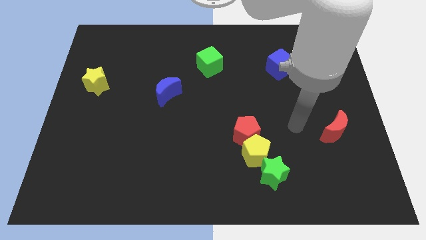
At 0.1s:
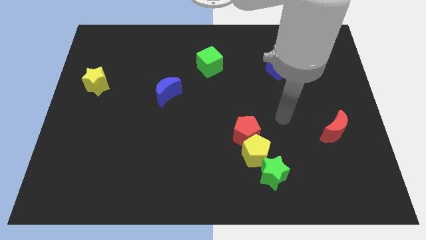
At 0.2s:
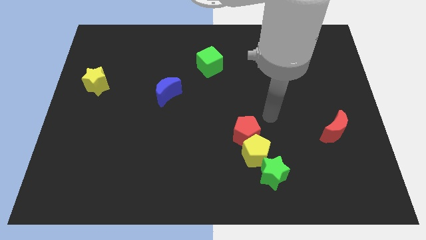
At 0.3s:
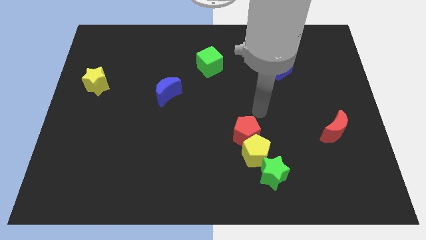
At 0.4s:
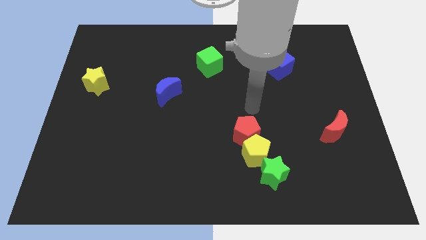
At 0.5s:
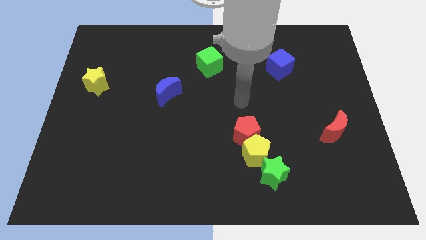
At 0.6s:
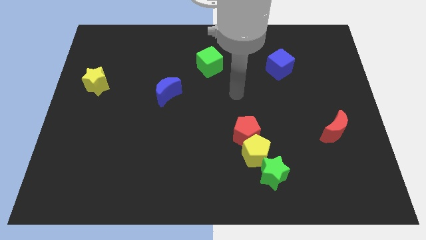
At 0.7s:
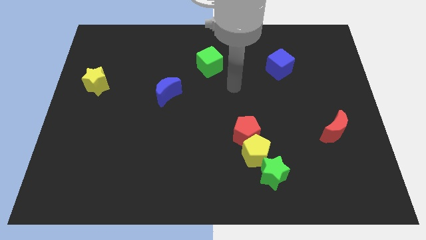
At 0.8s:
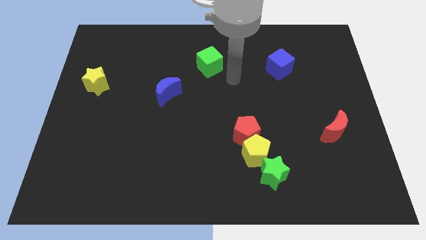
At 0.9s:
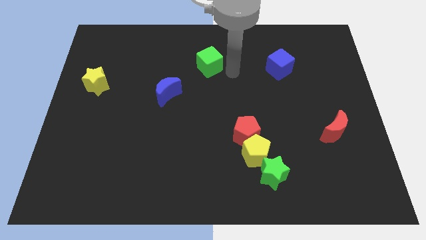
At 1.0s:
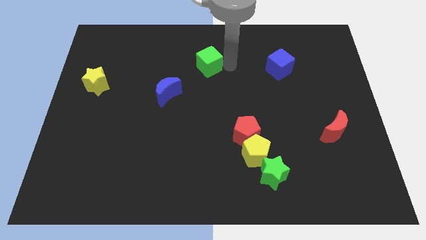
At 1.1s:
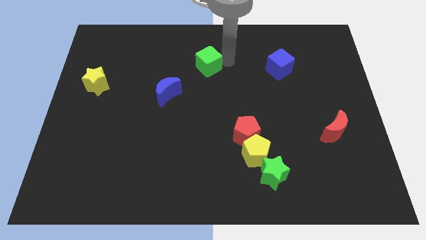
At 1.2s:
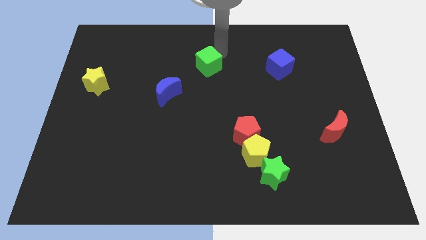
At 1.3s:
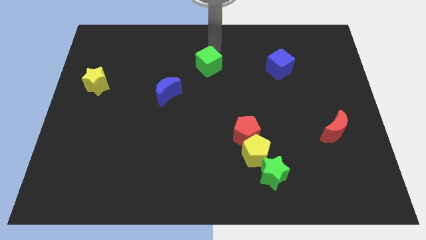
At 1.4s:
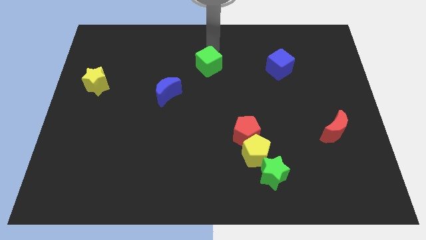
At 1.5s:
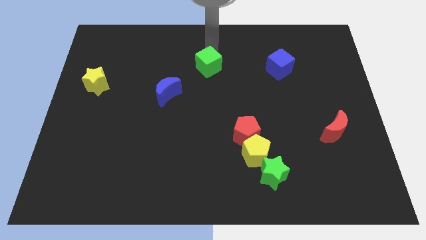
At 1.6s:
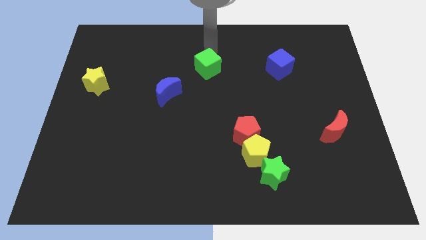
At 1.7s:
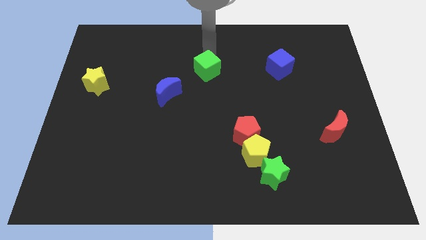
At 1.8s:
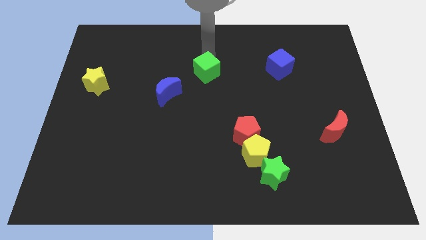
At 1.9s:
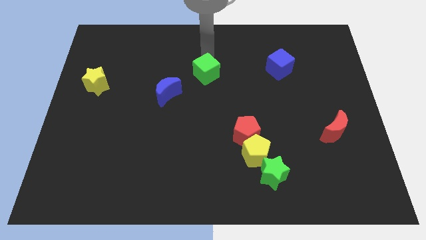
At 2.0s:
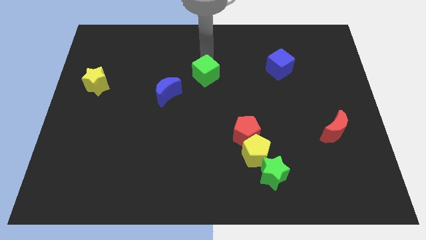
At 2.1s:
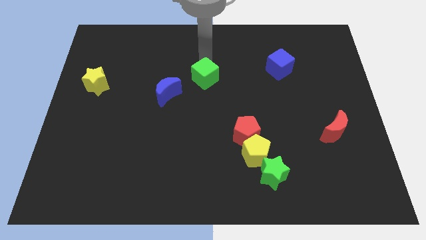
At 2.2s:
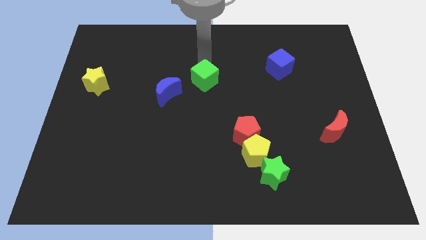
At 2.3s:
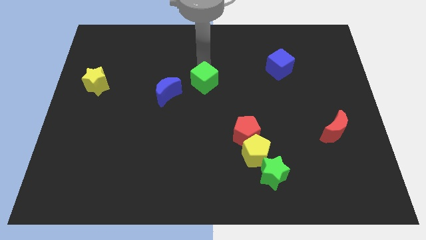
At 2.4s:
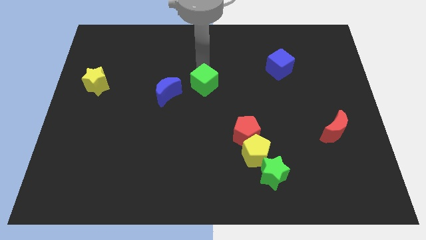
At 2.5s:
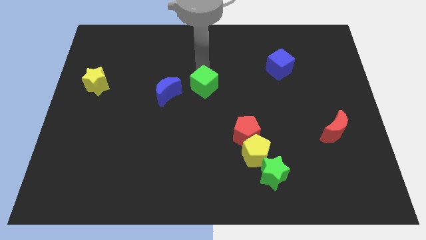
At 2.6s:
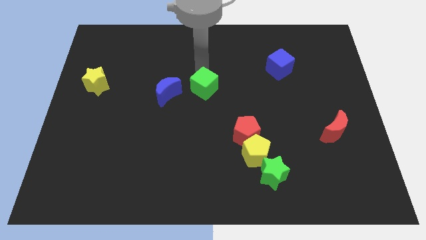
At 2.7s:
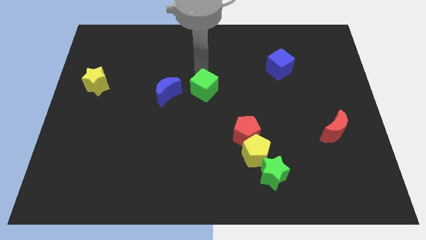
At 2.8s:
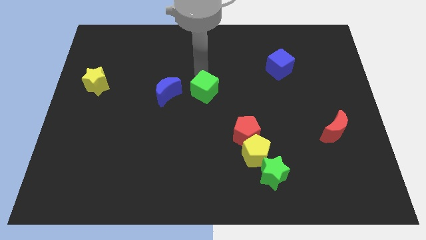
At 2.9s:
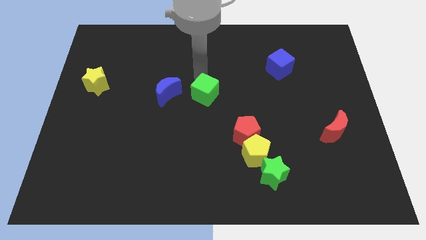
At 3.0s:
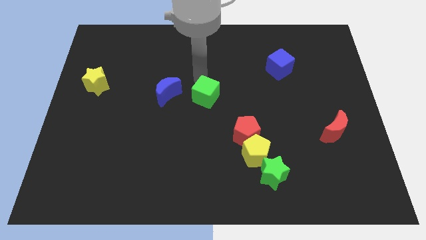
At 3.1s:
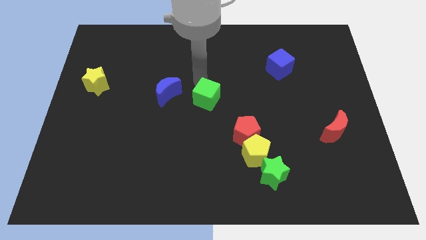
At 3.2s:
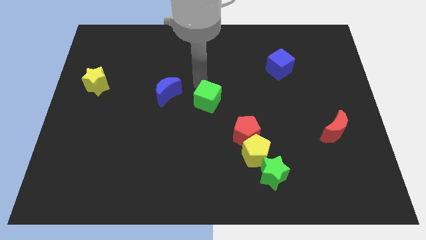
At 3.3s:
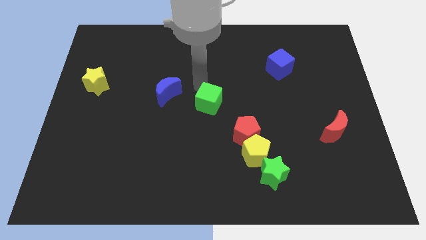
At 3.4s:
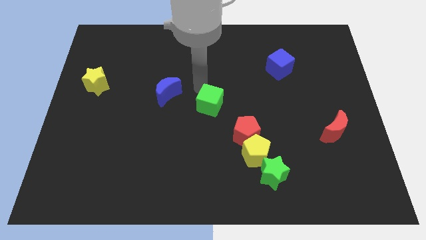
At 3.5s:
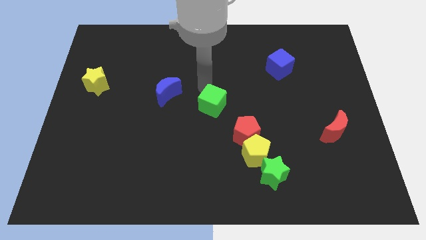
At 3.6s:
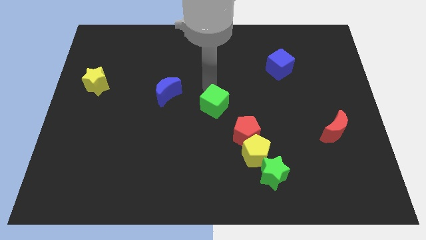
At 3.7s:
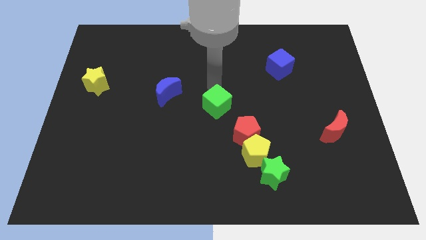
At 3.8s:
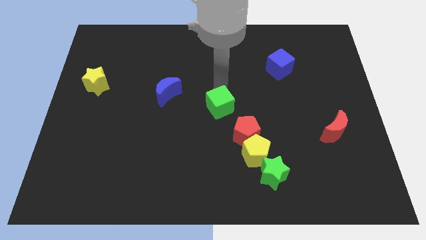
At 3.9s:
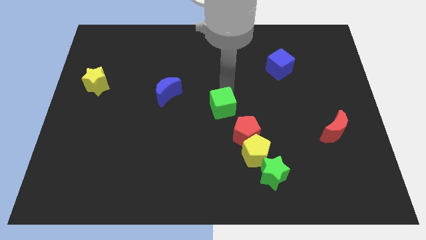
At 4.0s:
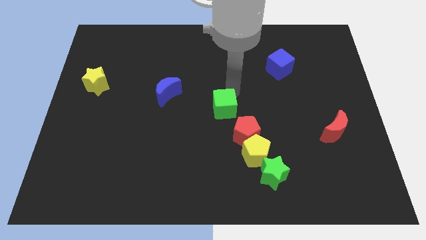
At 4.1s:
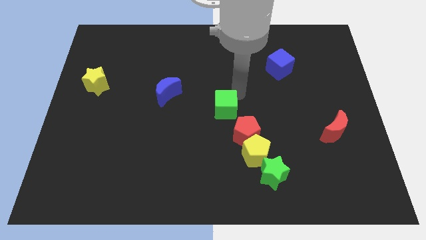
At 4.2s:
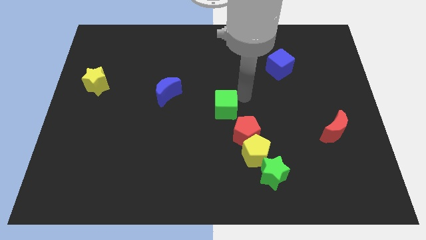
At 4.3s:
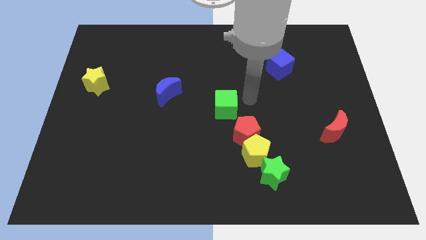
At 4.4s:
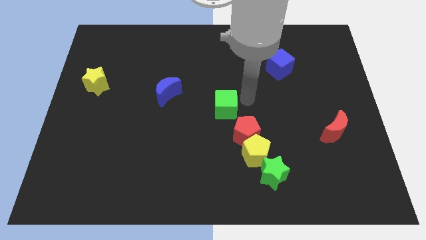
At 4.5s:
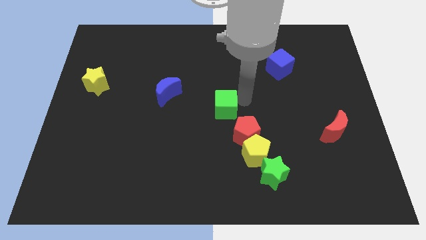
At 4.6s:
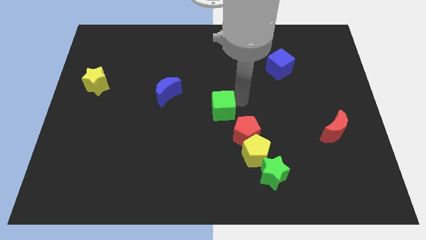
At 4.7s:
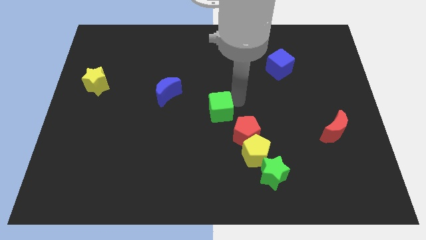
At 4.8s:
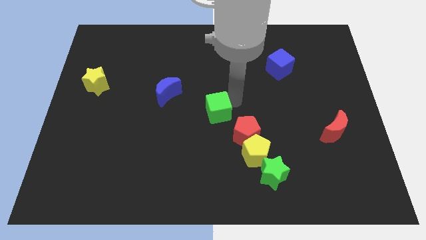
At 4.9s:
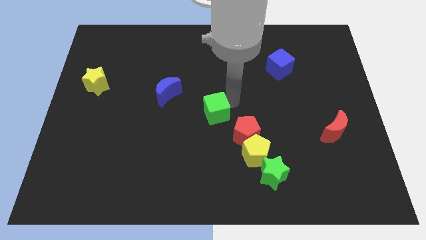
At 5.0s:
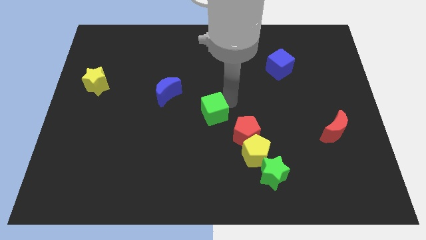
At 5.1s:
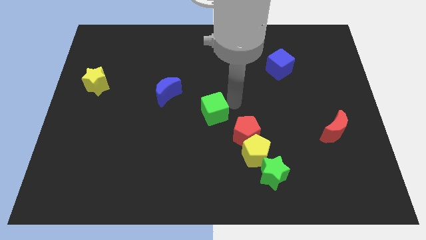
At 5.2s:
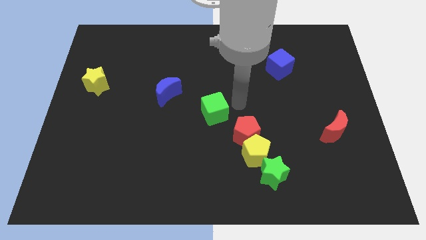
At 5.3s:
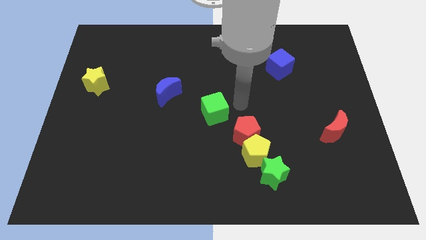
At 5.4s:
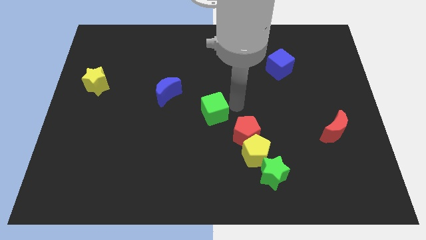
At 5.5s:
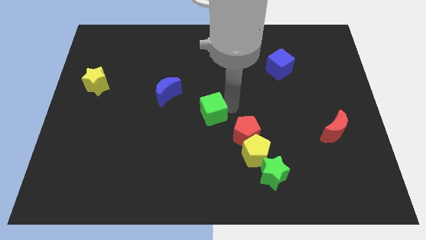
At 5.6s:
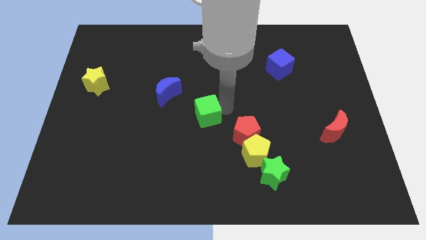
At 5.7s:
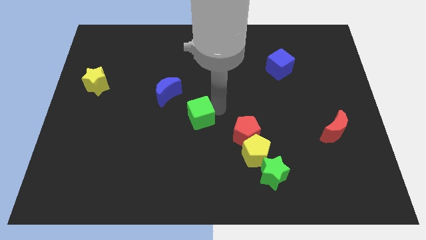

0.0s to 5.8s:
move the green cube left of the red pentagon

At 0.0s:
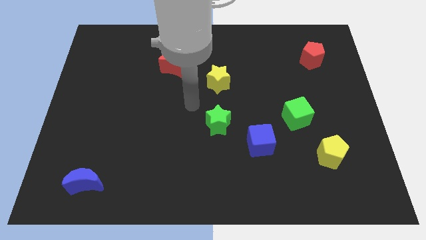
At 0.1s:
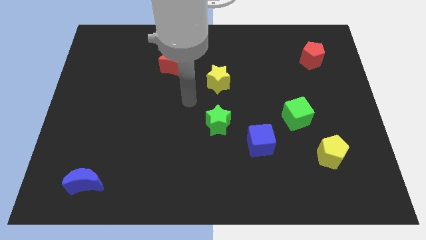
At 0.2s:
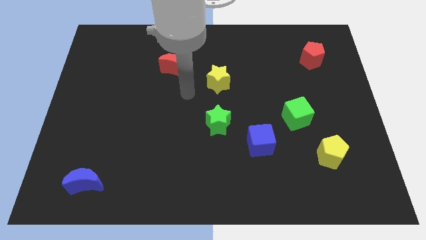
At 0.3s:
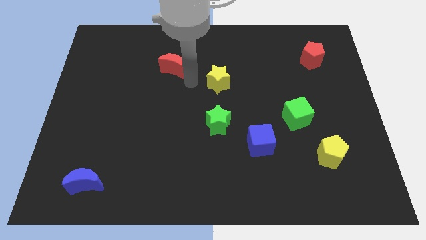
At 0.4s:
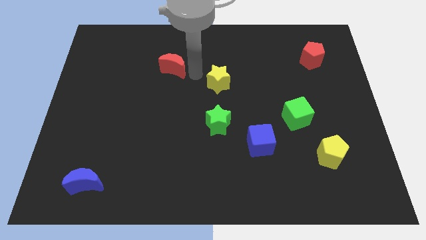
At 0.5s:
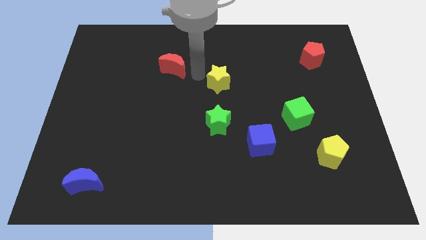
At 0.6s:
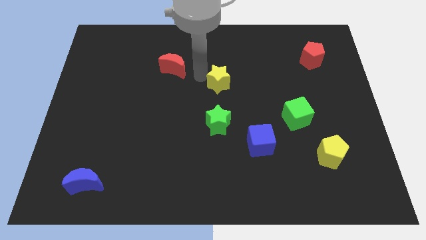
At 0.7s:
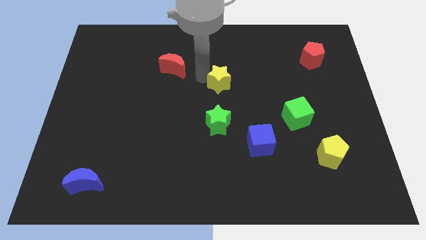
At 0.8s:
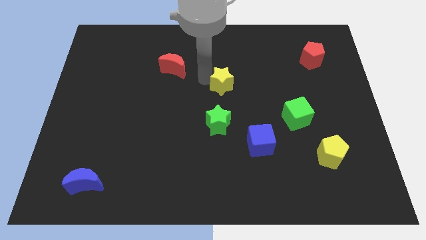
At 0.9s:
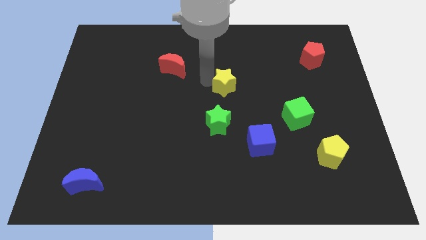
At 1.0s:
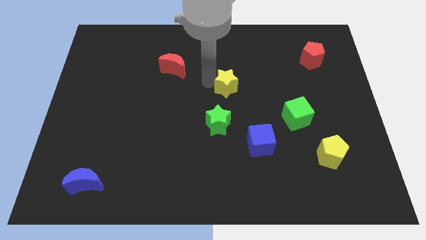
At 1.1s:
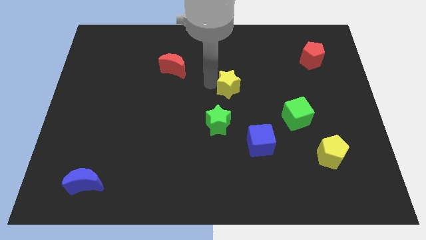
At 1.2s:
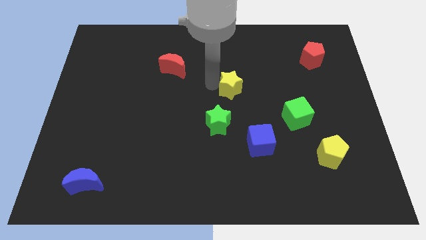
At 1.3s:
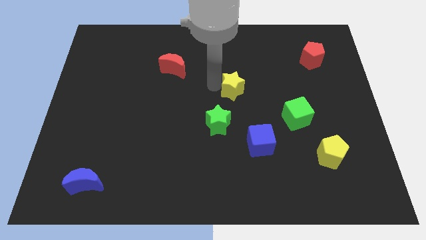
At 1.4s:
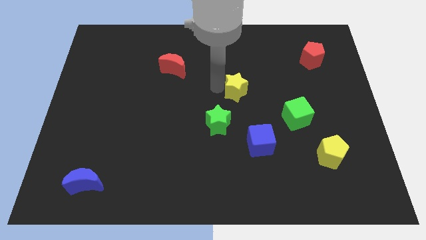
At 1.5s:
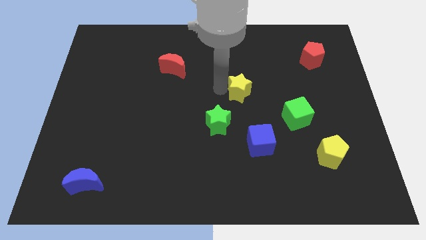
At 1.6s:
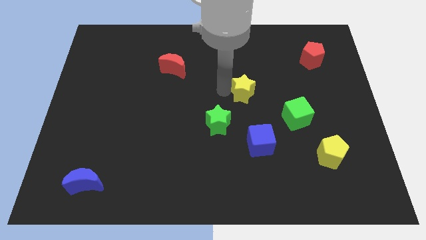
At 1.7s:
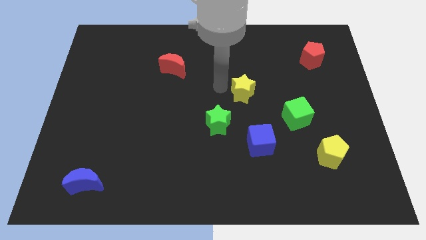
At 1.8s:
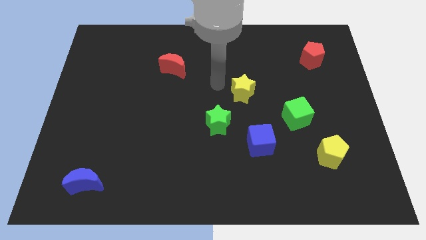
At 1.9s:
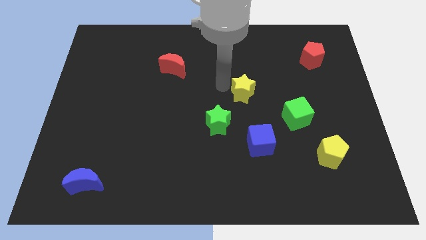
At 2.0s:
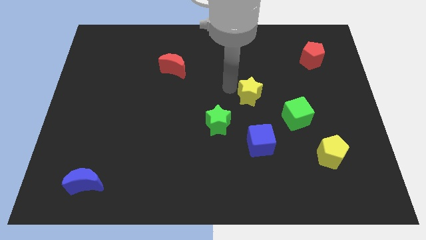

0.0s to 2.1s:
put the yellow star to the top left side of the green cube
